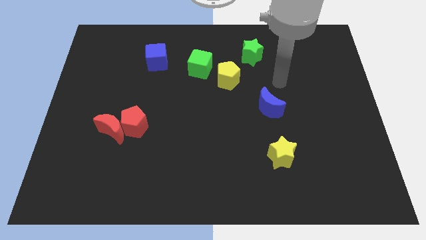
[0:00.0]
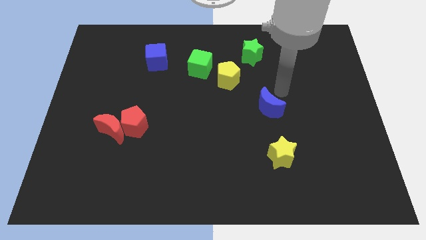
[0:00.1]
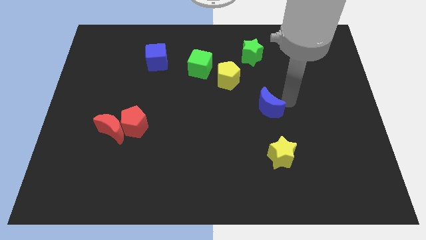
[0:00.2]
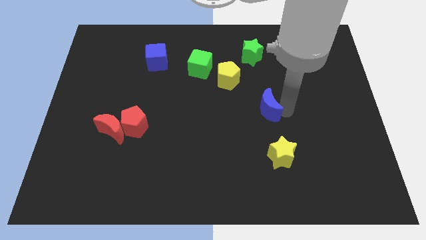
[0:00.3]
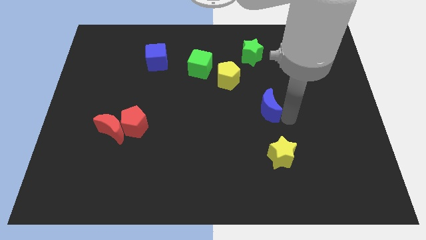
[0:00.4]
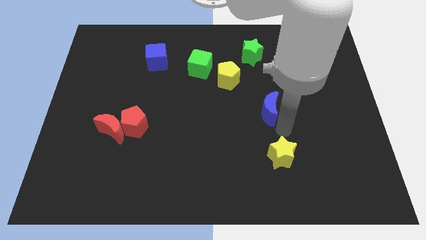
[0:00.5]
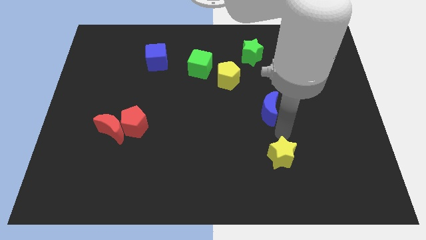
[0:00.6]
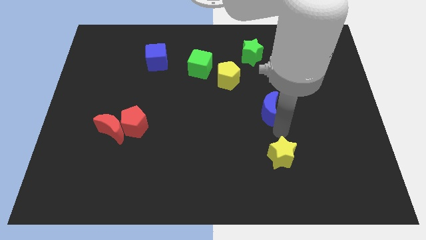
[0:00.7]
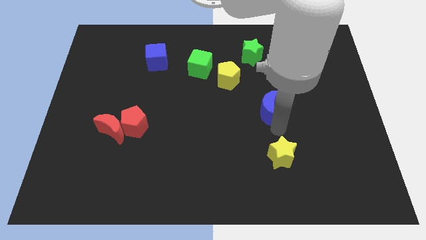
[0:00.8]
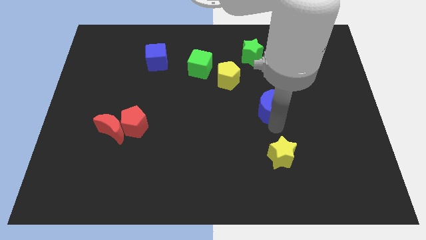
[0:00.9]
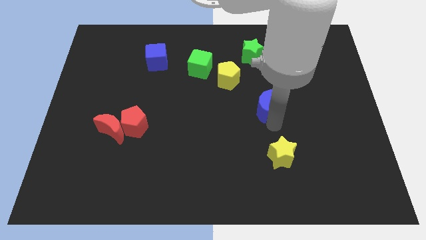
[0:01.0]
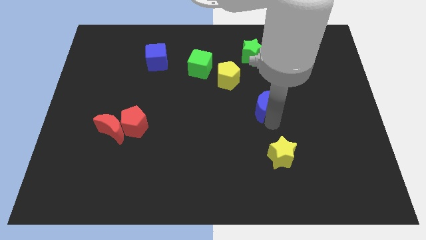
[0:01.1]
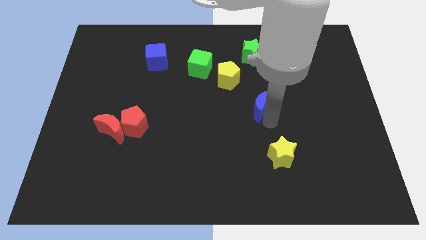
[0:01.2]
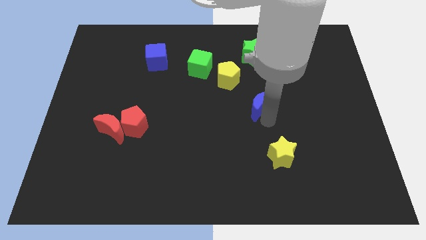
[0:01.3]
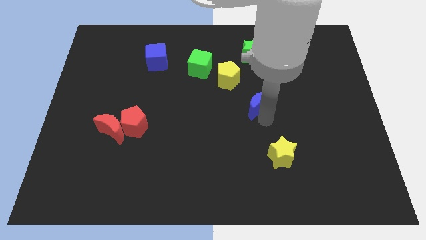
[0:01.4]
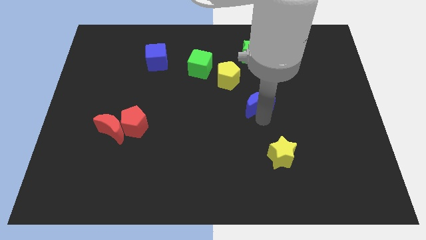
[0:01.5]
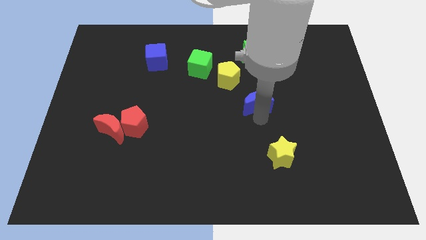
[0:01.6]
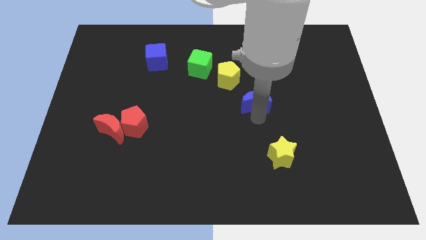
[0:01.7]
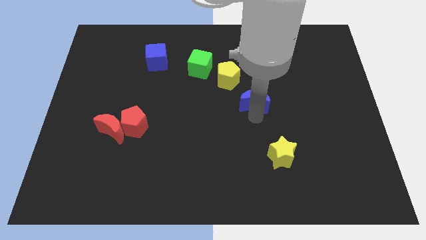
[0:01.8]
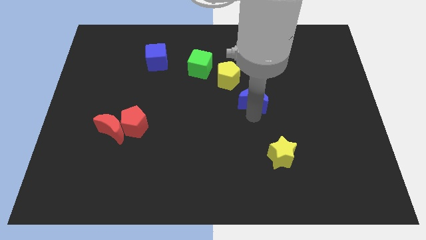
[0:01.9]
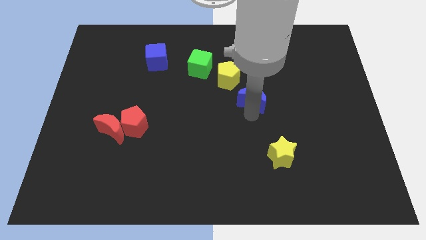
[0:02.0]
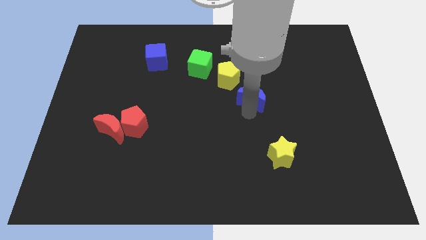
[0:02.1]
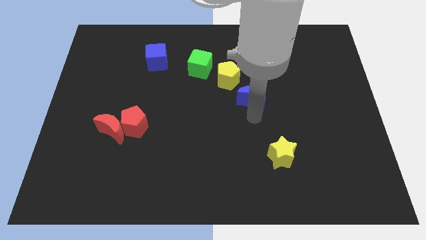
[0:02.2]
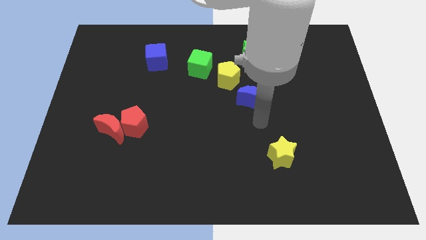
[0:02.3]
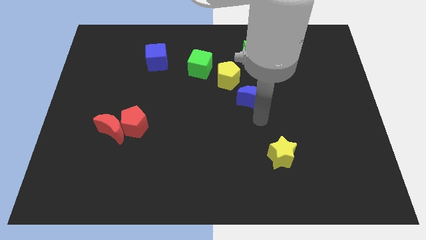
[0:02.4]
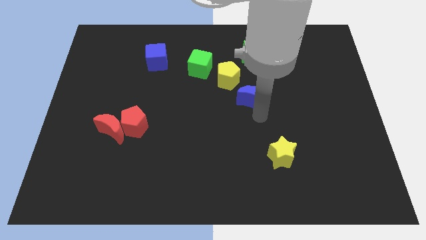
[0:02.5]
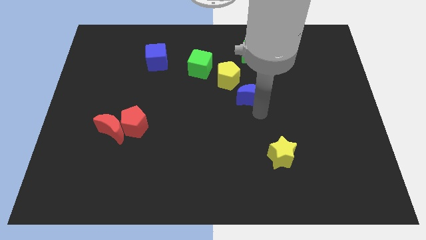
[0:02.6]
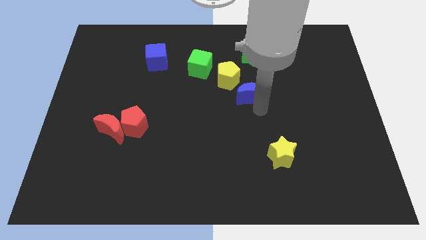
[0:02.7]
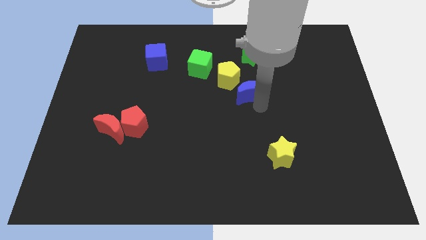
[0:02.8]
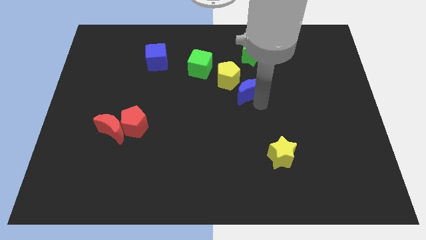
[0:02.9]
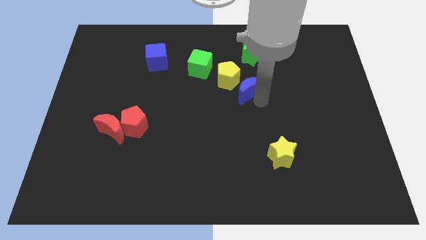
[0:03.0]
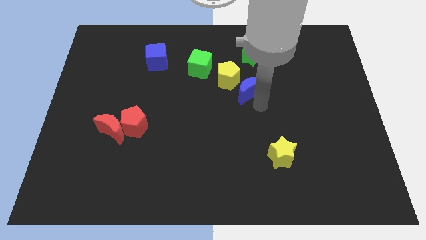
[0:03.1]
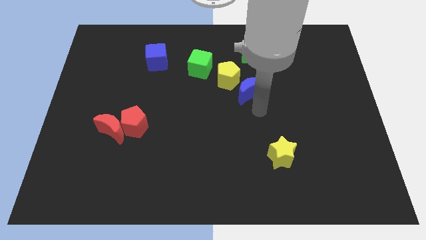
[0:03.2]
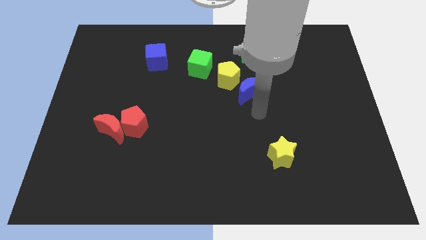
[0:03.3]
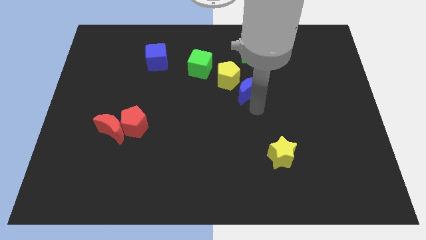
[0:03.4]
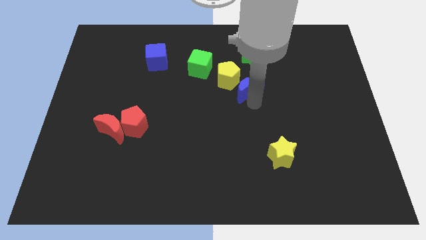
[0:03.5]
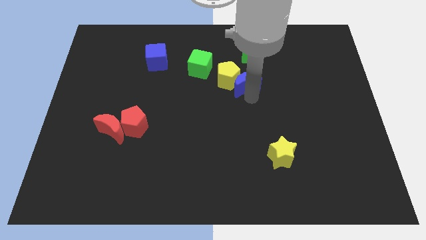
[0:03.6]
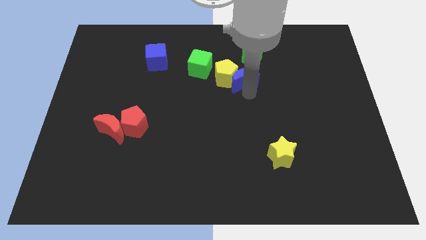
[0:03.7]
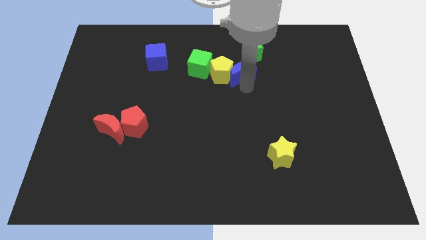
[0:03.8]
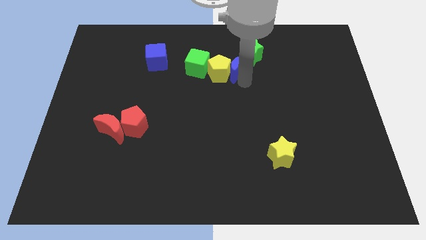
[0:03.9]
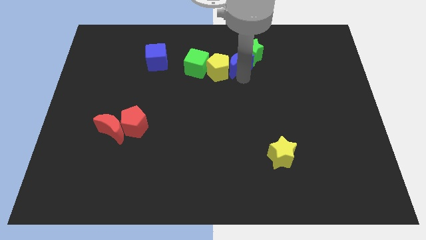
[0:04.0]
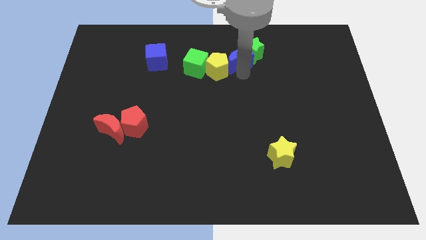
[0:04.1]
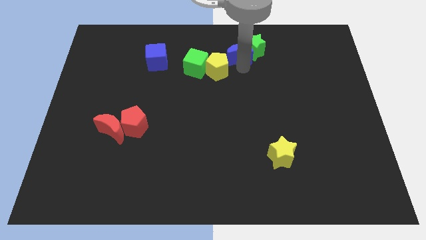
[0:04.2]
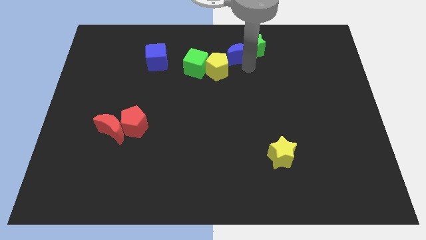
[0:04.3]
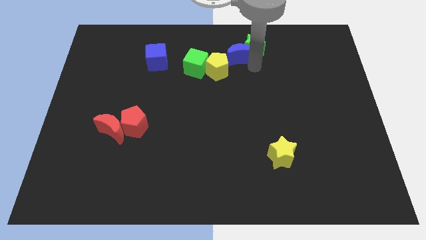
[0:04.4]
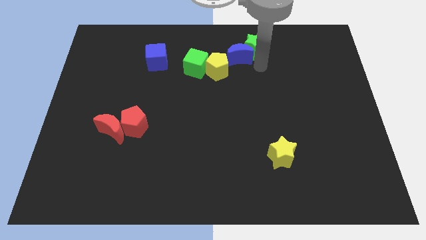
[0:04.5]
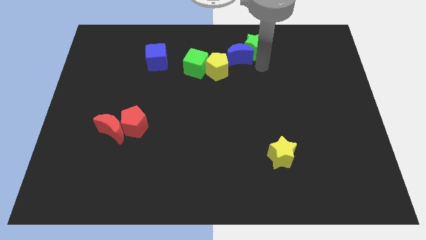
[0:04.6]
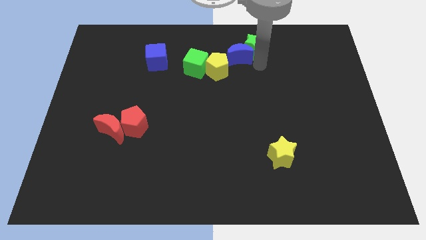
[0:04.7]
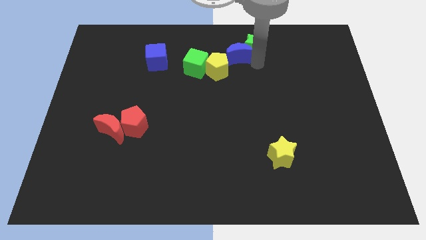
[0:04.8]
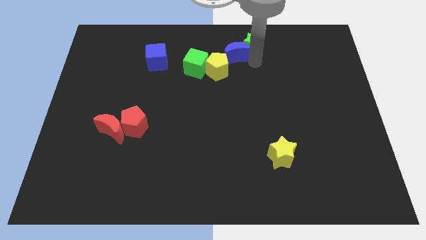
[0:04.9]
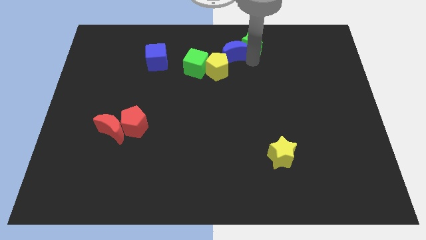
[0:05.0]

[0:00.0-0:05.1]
put the blue moon to the top

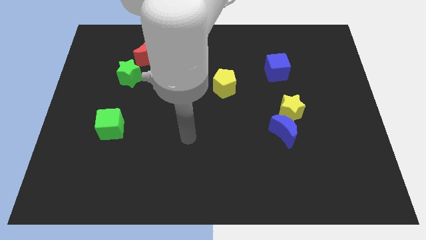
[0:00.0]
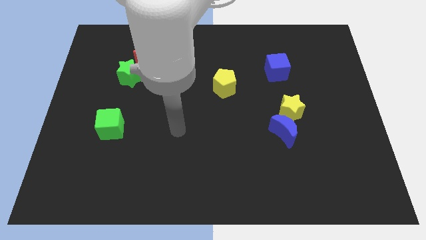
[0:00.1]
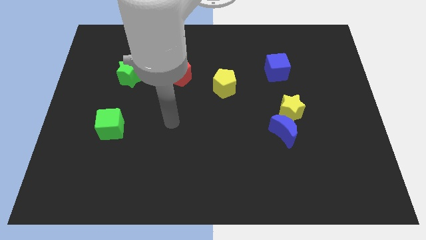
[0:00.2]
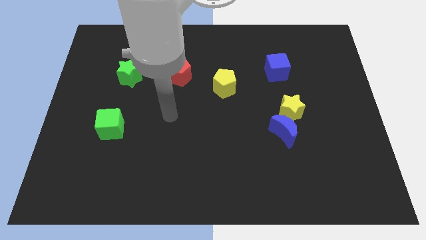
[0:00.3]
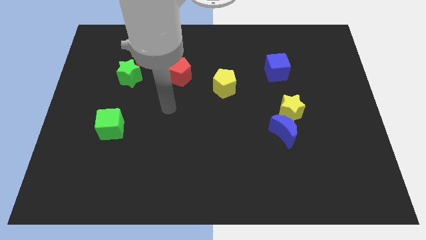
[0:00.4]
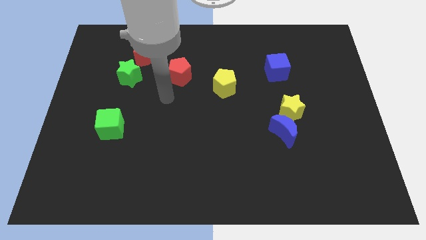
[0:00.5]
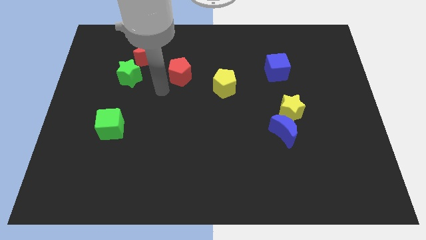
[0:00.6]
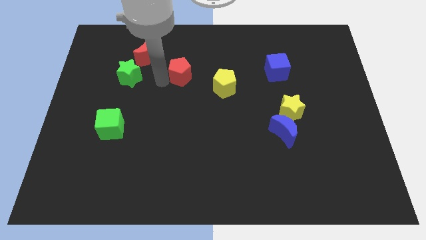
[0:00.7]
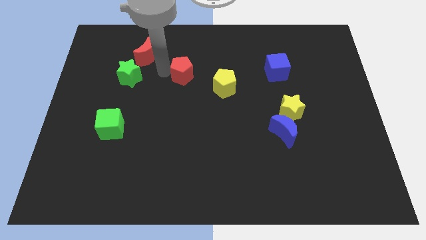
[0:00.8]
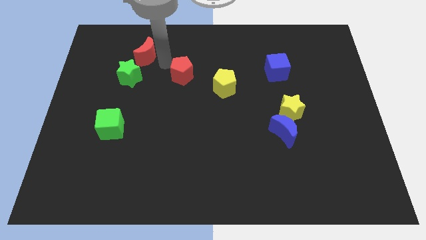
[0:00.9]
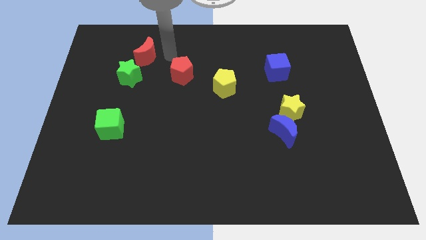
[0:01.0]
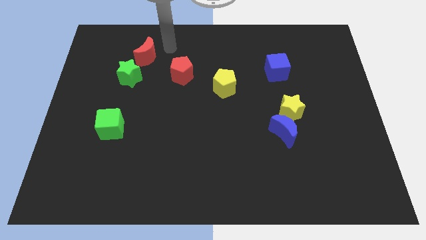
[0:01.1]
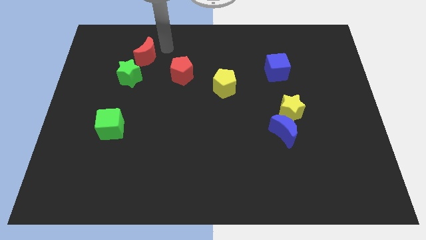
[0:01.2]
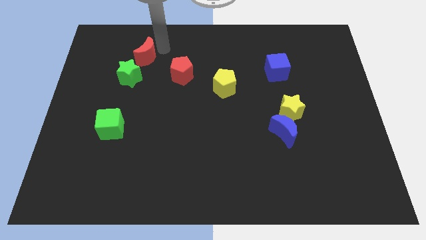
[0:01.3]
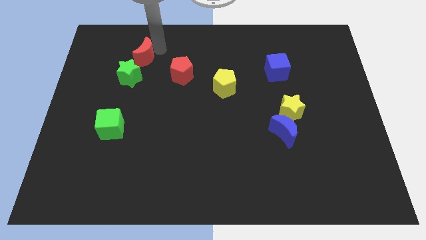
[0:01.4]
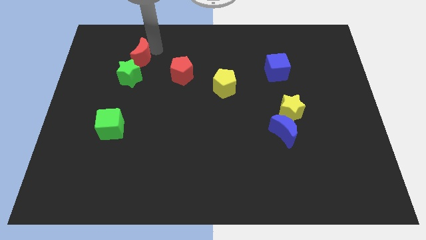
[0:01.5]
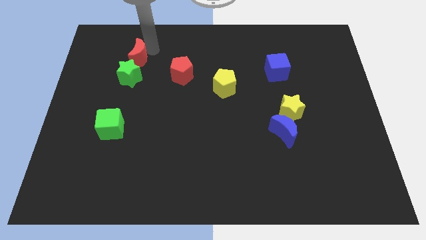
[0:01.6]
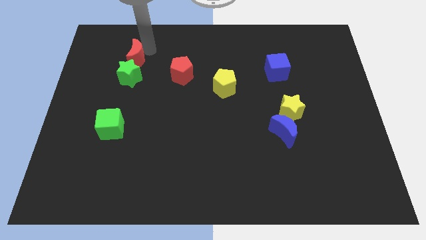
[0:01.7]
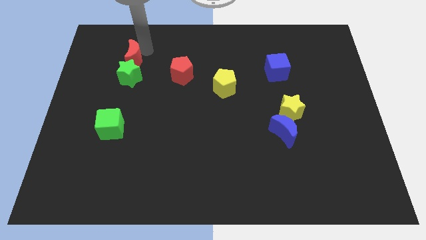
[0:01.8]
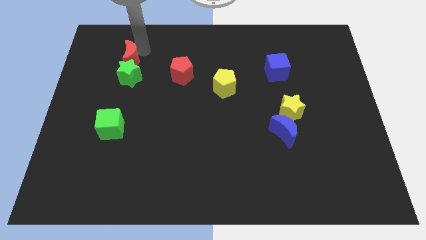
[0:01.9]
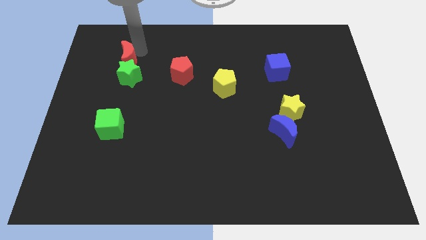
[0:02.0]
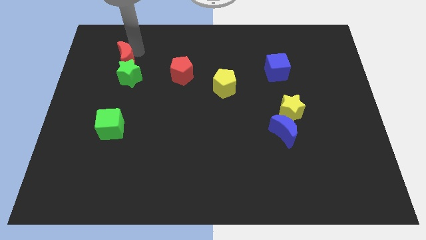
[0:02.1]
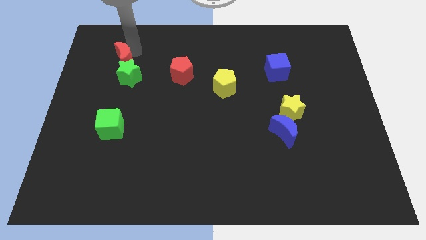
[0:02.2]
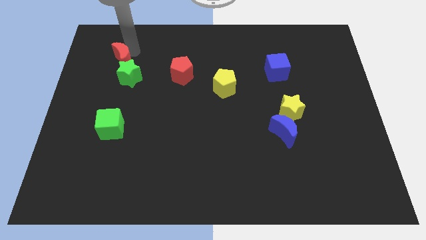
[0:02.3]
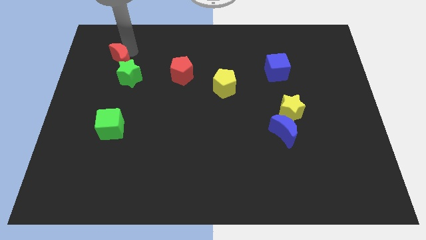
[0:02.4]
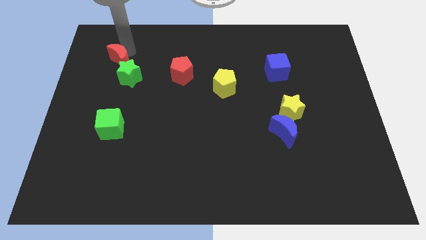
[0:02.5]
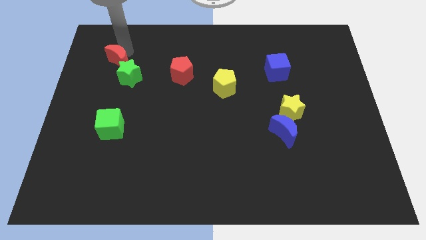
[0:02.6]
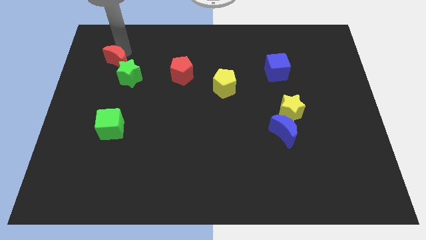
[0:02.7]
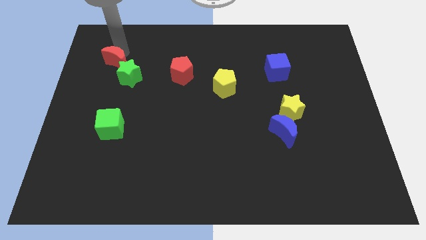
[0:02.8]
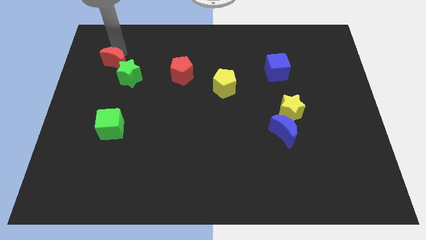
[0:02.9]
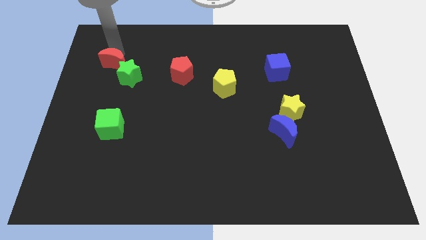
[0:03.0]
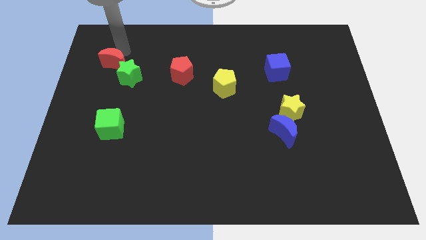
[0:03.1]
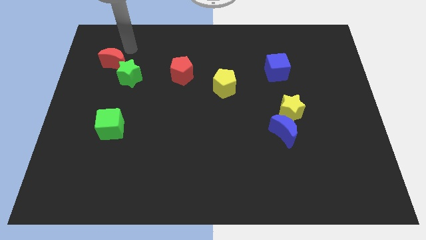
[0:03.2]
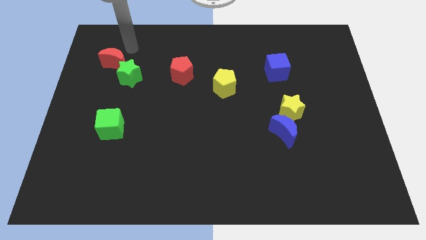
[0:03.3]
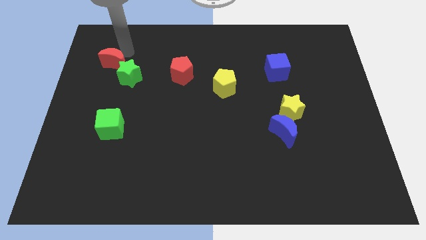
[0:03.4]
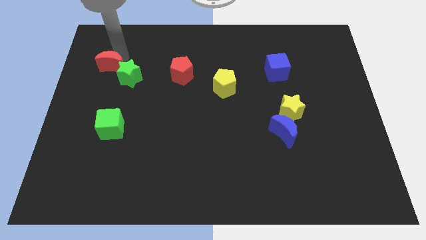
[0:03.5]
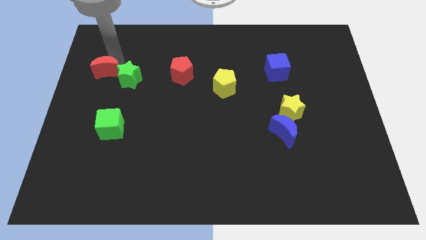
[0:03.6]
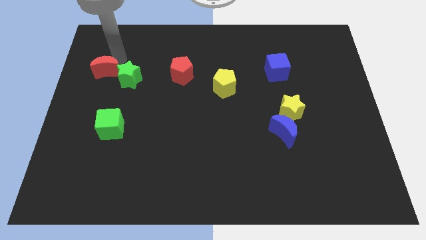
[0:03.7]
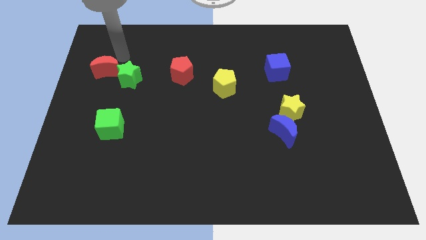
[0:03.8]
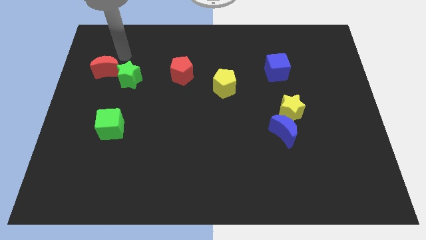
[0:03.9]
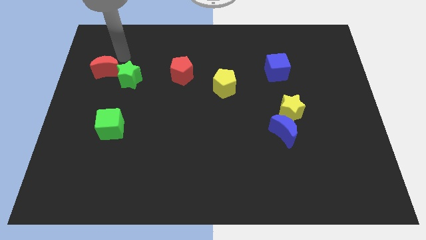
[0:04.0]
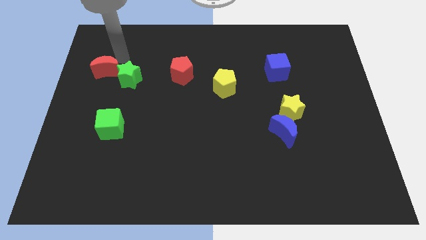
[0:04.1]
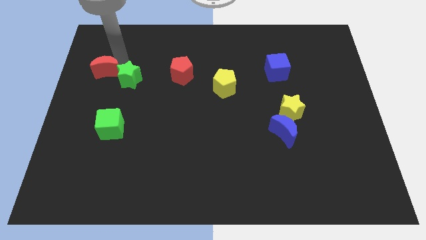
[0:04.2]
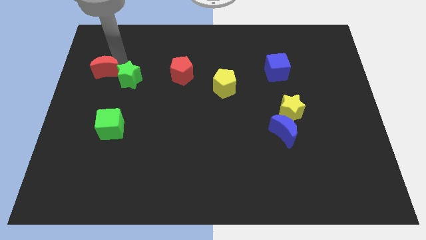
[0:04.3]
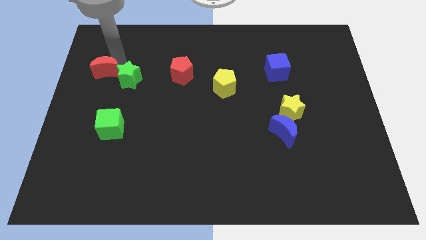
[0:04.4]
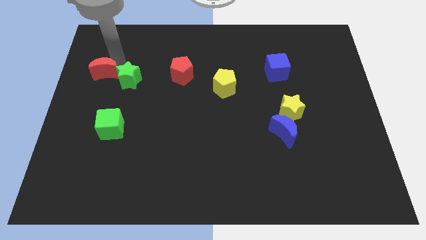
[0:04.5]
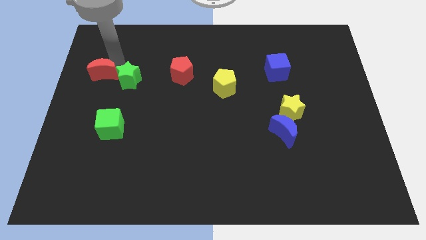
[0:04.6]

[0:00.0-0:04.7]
move the red moon to the center left
